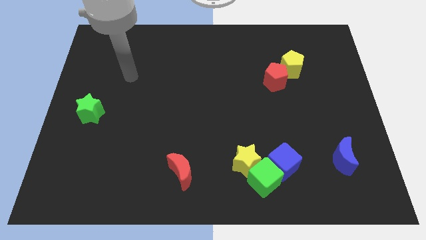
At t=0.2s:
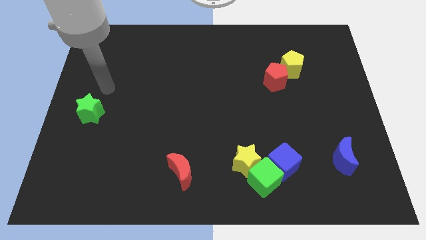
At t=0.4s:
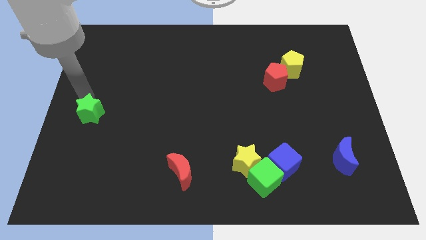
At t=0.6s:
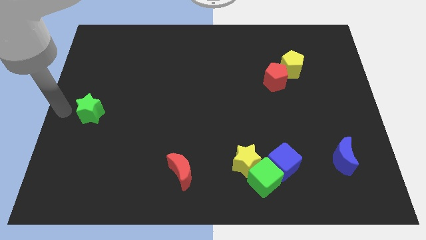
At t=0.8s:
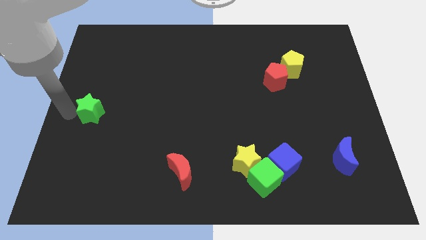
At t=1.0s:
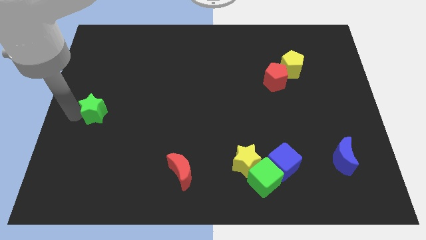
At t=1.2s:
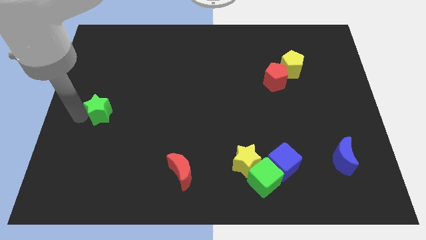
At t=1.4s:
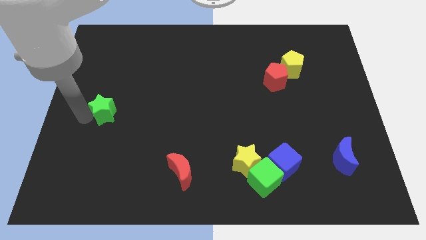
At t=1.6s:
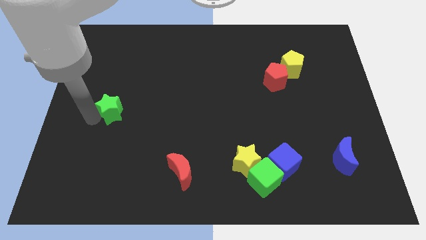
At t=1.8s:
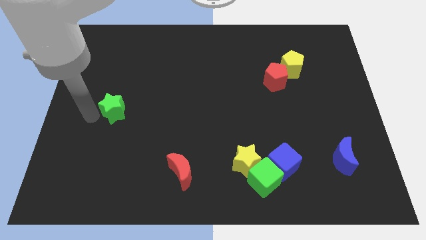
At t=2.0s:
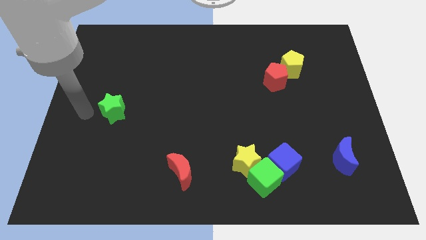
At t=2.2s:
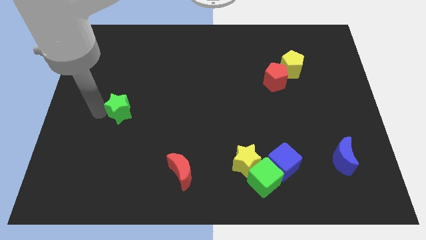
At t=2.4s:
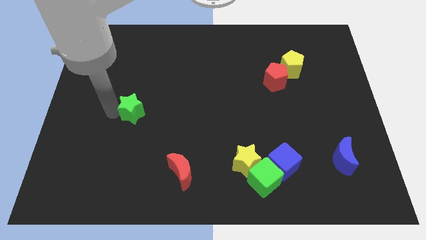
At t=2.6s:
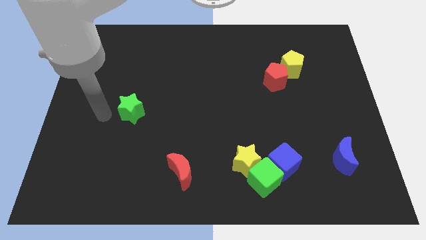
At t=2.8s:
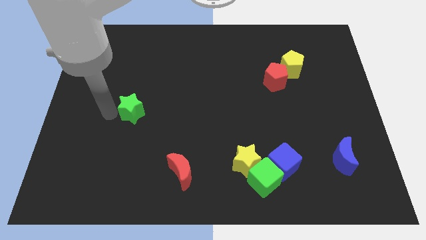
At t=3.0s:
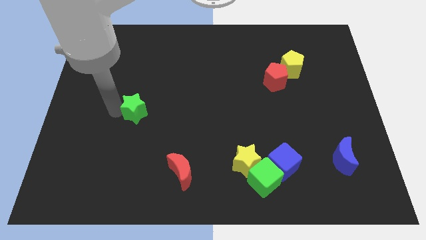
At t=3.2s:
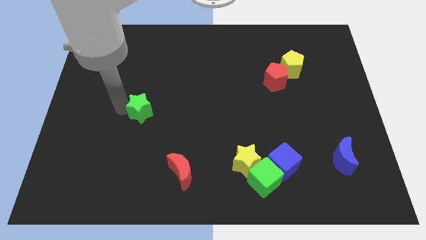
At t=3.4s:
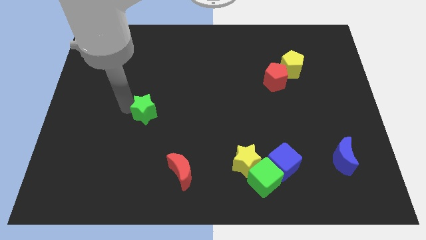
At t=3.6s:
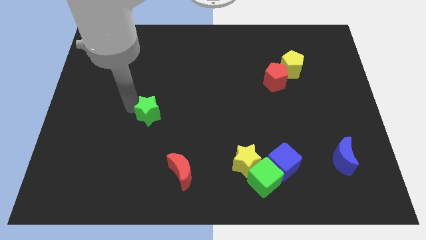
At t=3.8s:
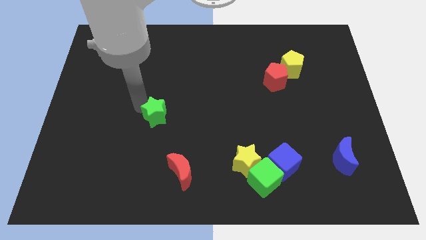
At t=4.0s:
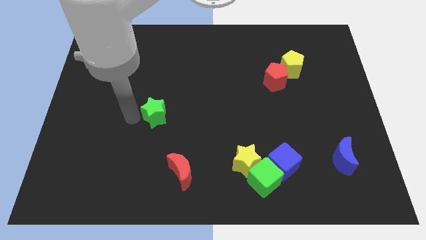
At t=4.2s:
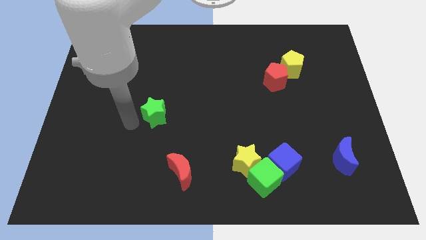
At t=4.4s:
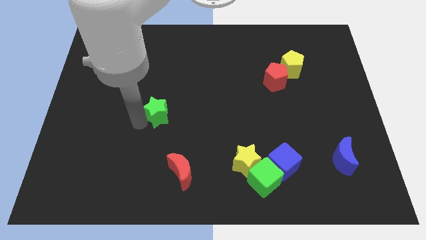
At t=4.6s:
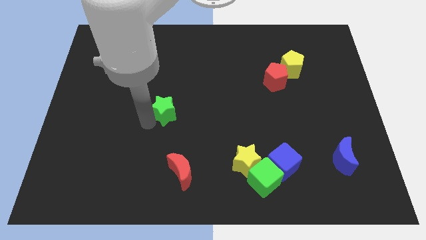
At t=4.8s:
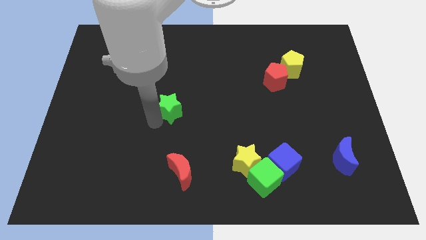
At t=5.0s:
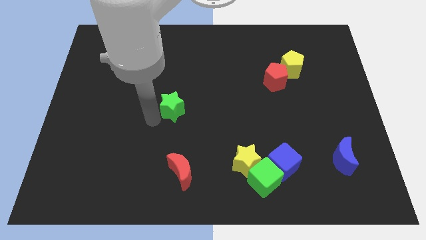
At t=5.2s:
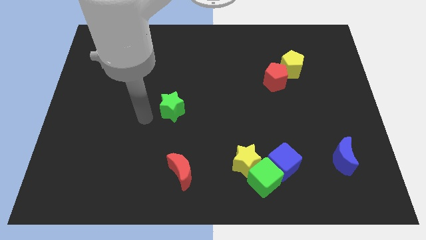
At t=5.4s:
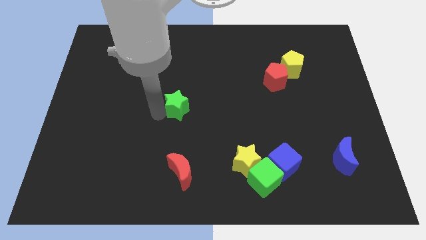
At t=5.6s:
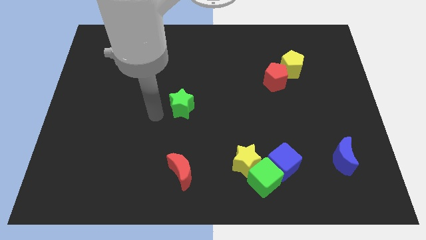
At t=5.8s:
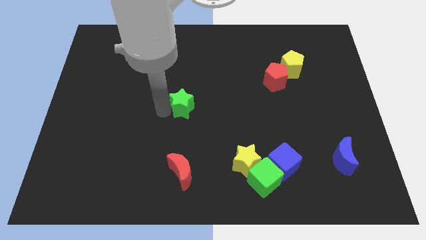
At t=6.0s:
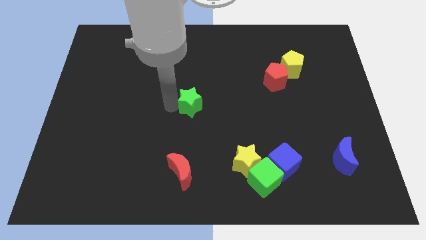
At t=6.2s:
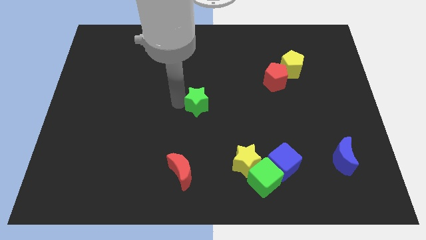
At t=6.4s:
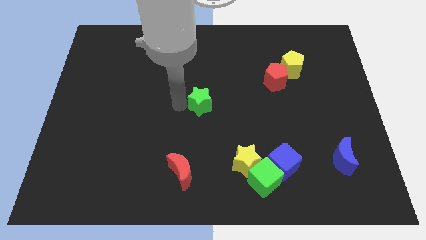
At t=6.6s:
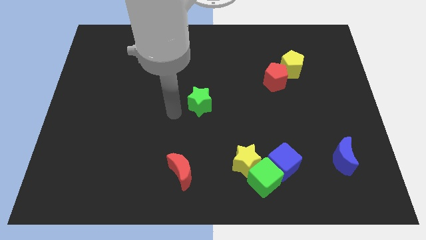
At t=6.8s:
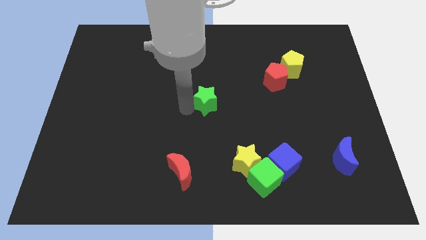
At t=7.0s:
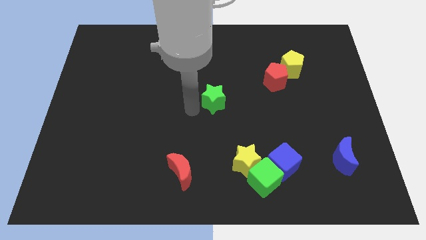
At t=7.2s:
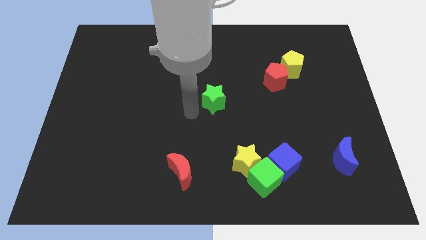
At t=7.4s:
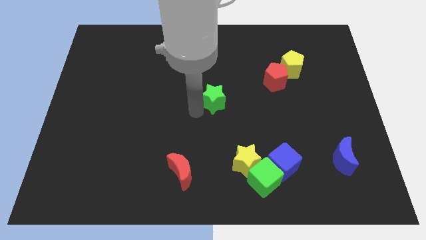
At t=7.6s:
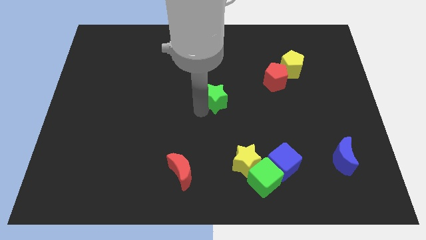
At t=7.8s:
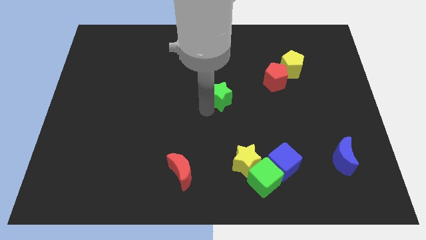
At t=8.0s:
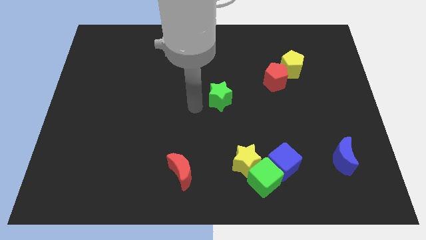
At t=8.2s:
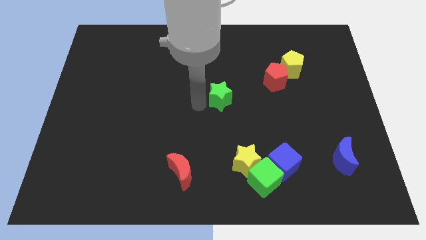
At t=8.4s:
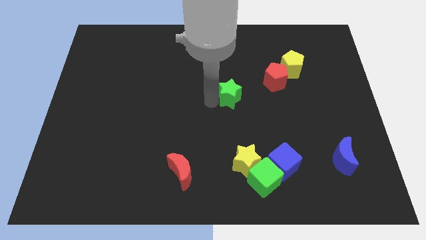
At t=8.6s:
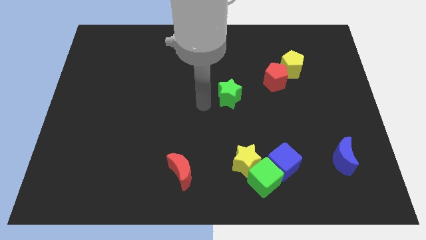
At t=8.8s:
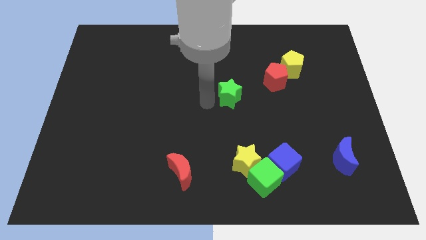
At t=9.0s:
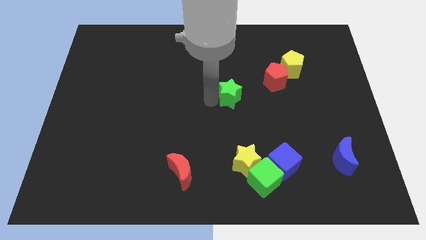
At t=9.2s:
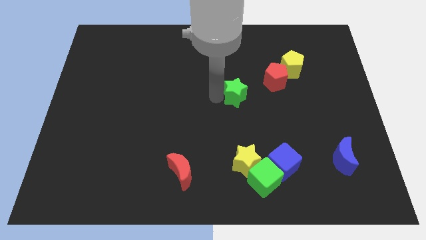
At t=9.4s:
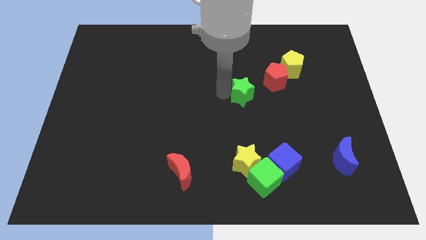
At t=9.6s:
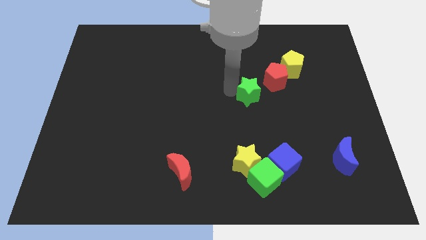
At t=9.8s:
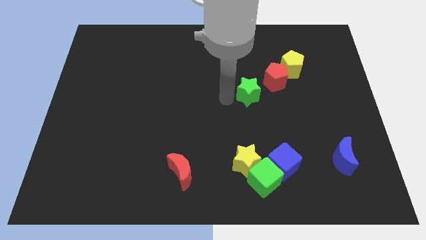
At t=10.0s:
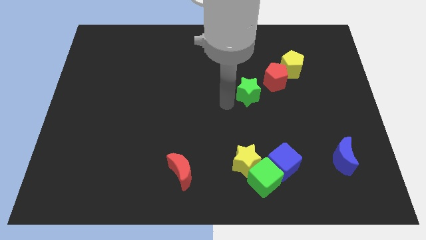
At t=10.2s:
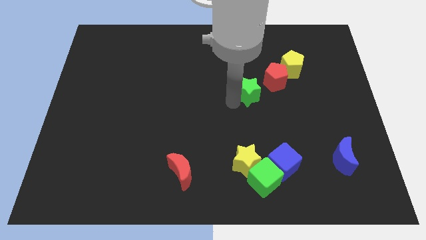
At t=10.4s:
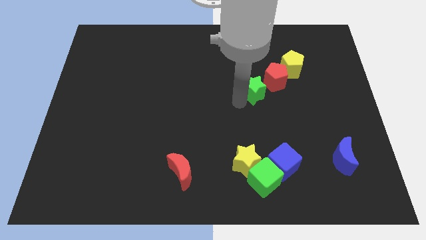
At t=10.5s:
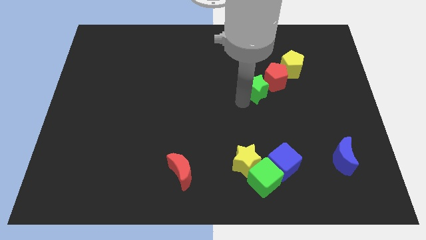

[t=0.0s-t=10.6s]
move the green star to the bottom left side of the yellow pentagon

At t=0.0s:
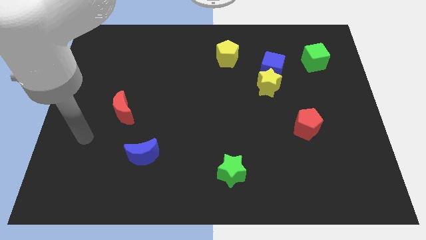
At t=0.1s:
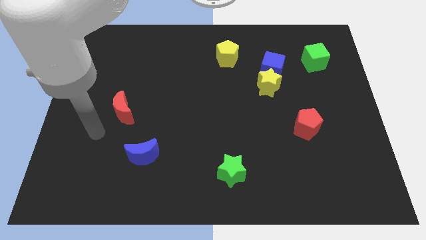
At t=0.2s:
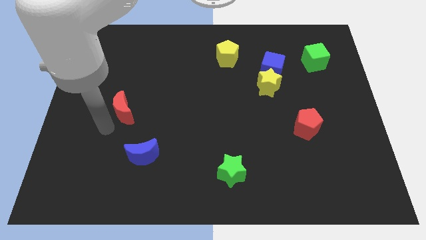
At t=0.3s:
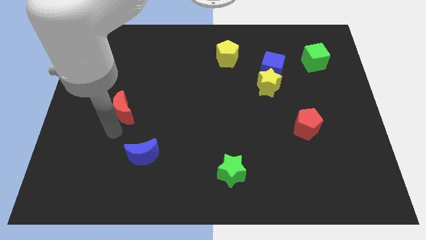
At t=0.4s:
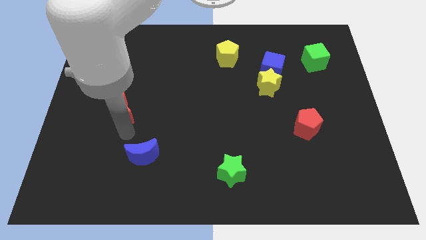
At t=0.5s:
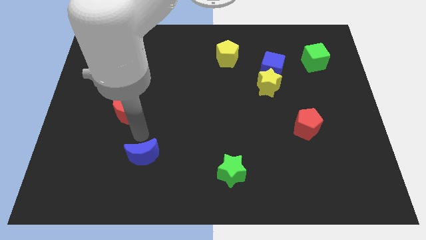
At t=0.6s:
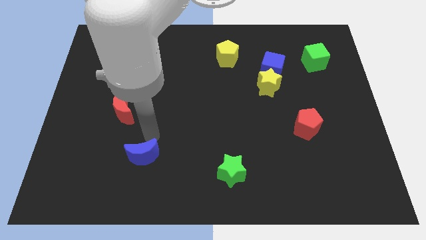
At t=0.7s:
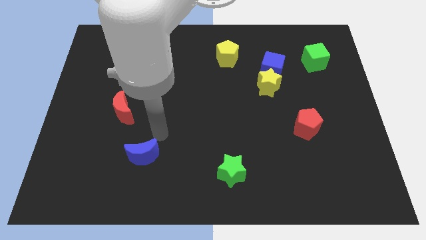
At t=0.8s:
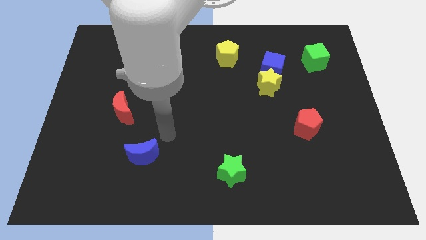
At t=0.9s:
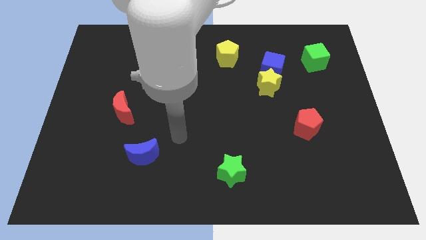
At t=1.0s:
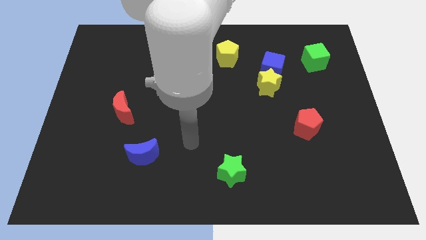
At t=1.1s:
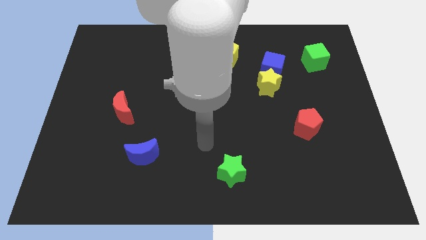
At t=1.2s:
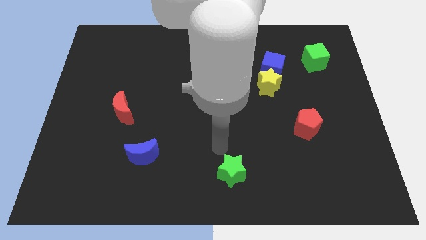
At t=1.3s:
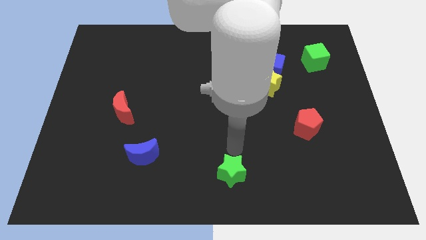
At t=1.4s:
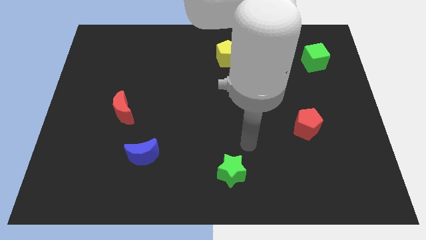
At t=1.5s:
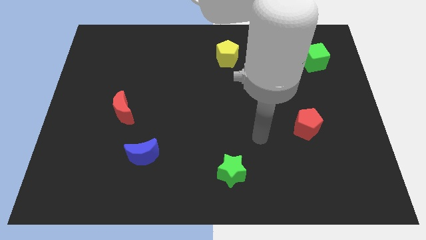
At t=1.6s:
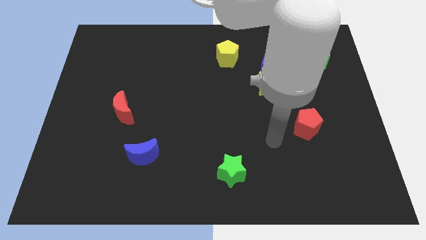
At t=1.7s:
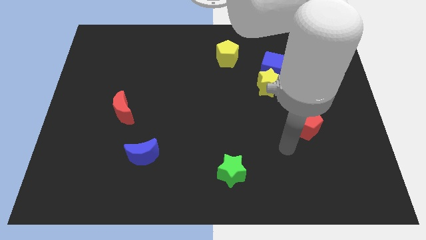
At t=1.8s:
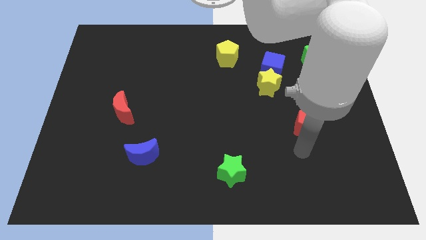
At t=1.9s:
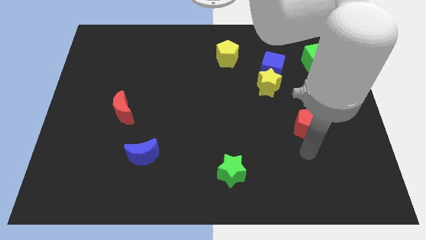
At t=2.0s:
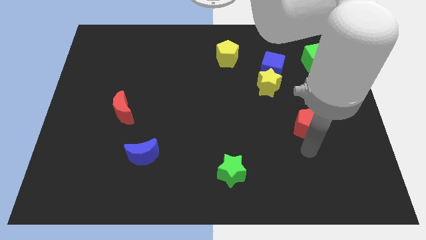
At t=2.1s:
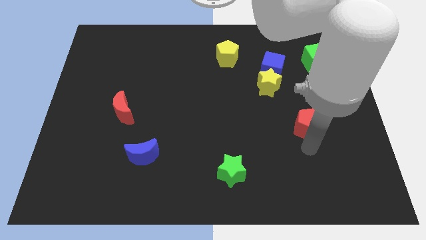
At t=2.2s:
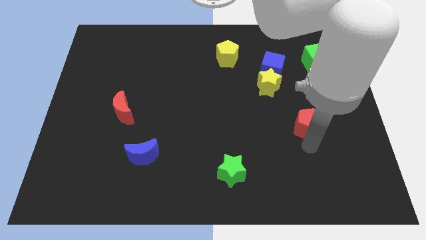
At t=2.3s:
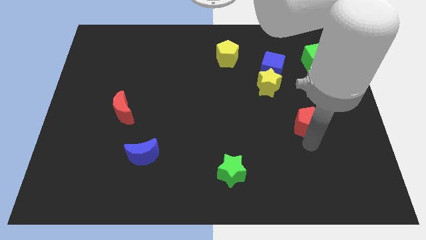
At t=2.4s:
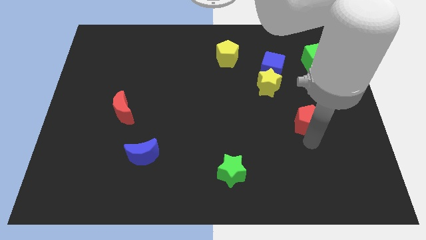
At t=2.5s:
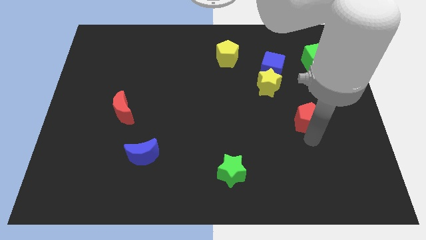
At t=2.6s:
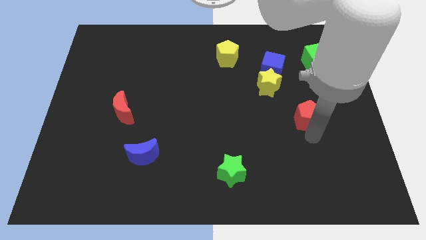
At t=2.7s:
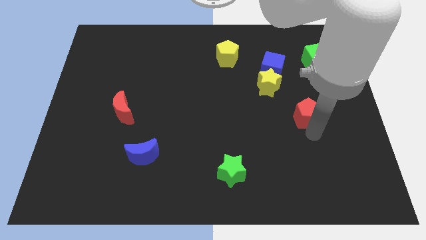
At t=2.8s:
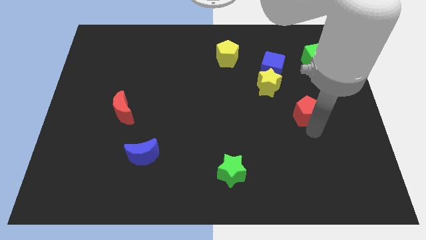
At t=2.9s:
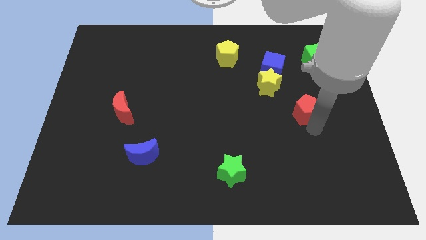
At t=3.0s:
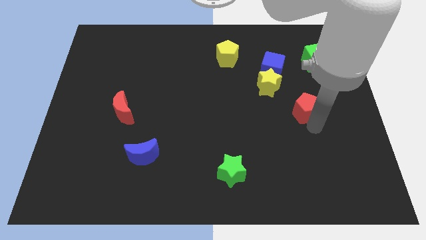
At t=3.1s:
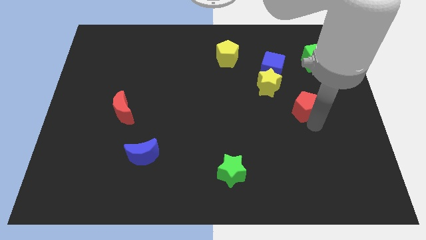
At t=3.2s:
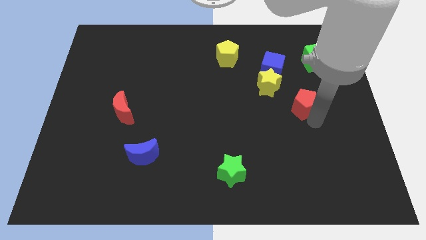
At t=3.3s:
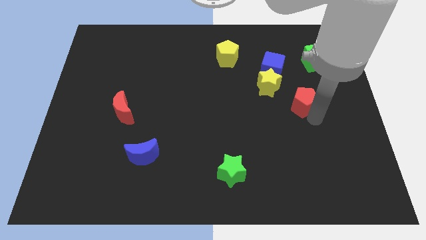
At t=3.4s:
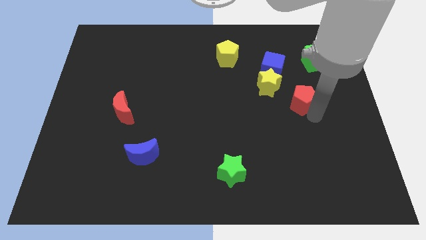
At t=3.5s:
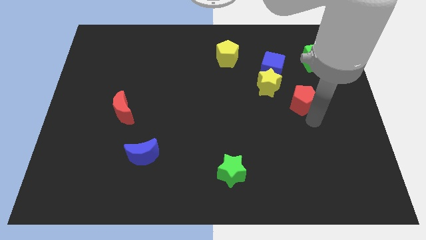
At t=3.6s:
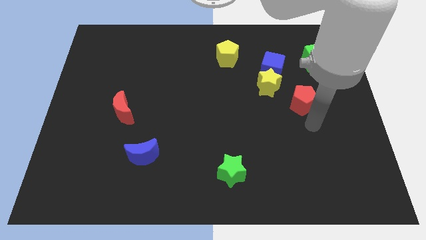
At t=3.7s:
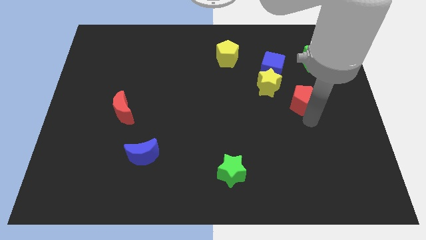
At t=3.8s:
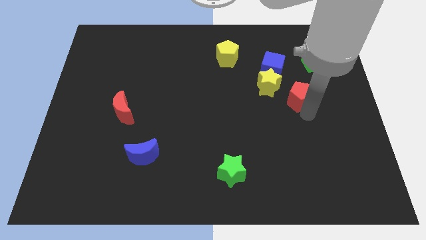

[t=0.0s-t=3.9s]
slide the red pentagon diagonally down and to the right of the blue cube
